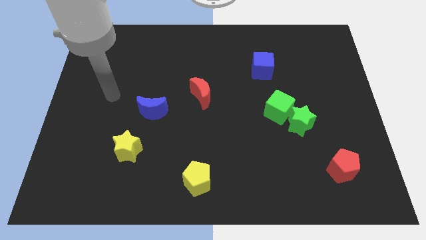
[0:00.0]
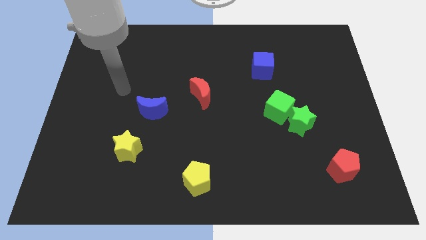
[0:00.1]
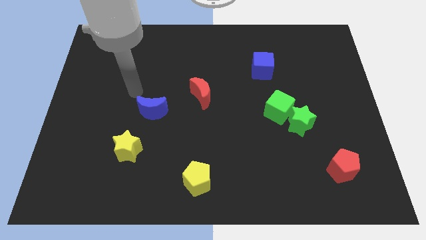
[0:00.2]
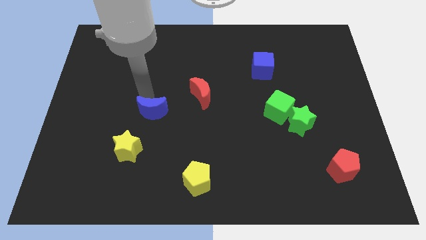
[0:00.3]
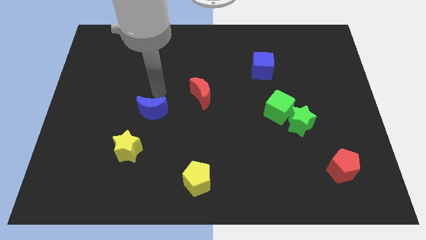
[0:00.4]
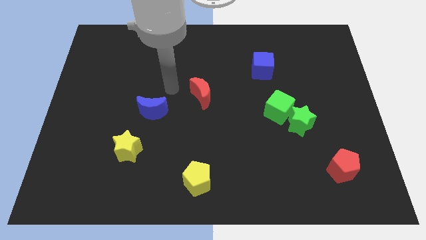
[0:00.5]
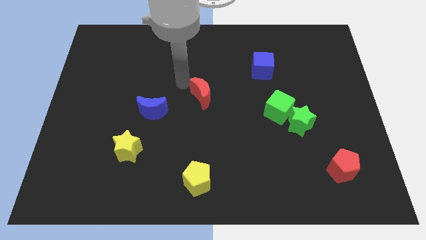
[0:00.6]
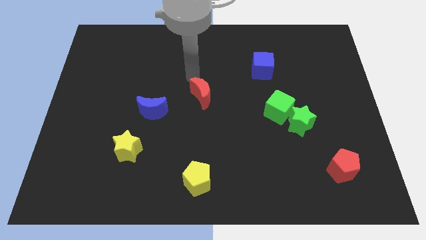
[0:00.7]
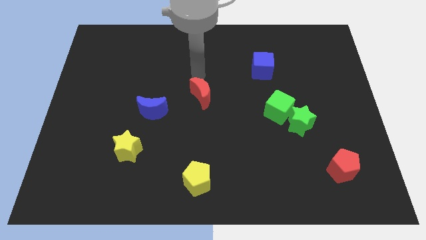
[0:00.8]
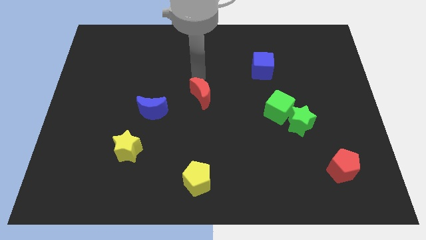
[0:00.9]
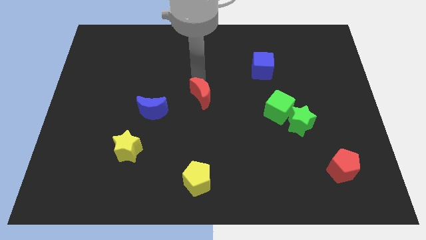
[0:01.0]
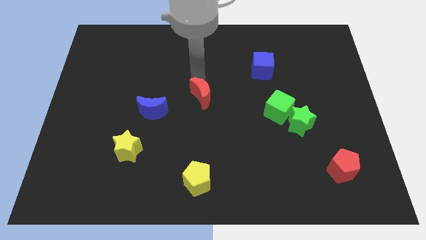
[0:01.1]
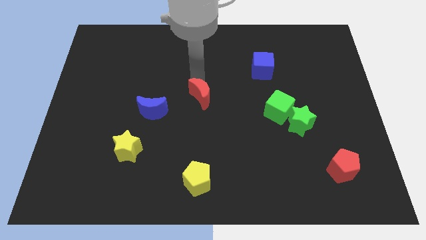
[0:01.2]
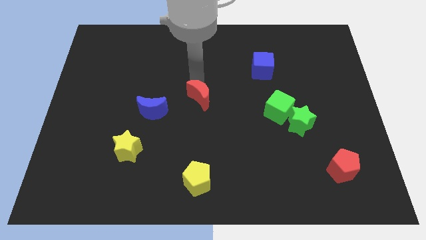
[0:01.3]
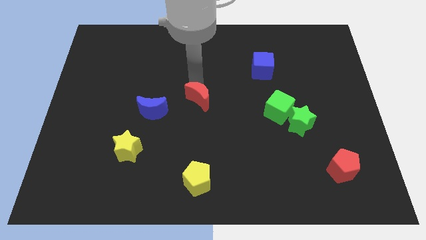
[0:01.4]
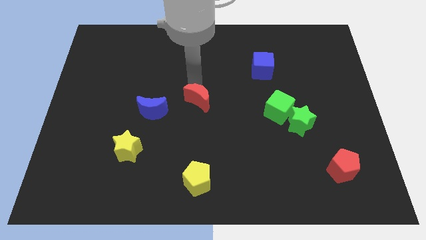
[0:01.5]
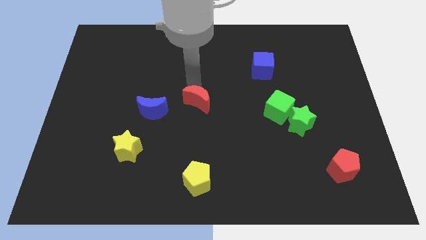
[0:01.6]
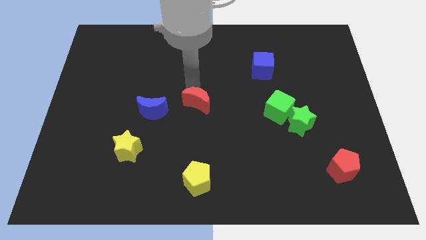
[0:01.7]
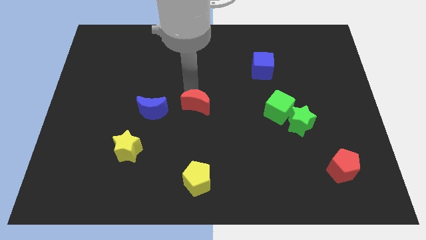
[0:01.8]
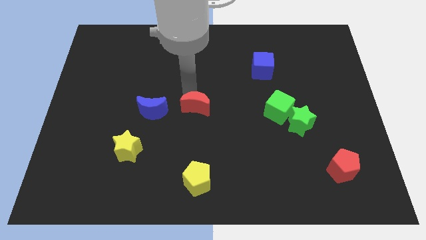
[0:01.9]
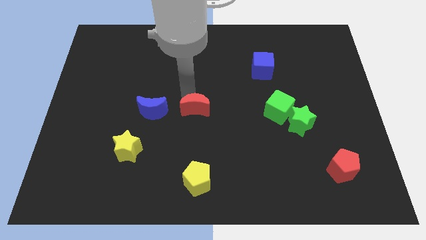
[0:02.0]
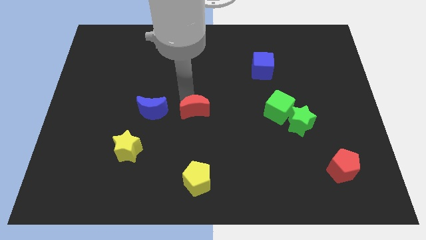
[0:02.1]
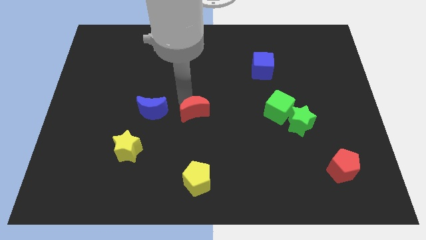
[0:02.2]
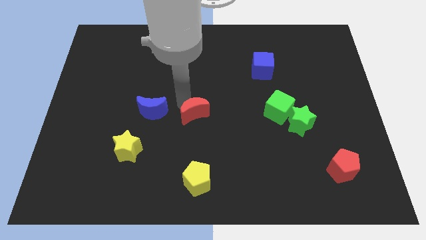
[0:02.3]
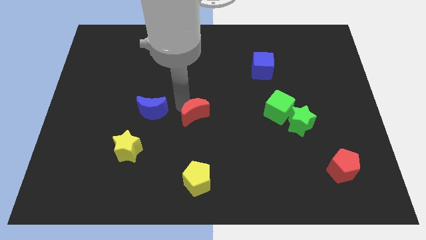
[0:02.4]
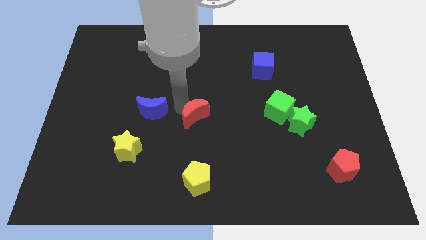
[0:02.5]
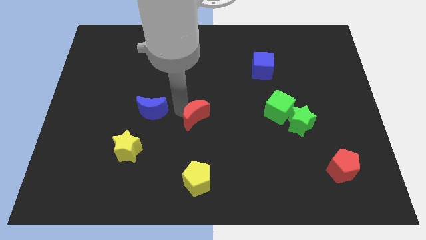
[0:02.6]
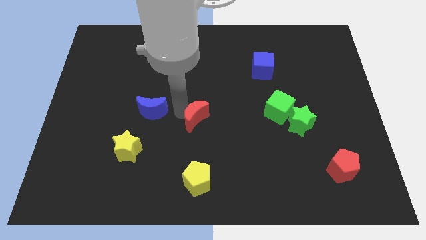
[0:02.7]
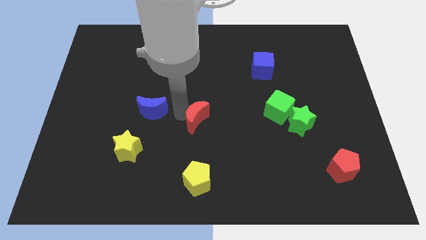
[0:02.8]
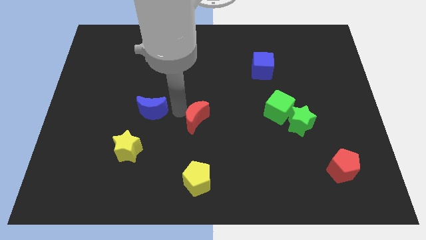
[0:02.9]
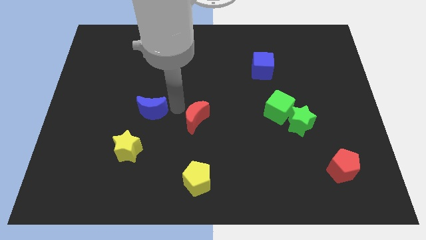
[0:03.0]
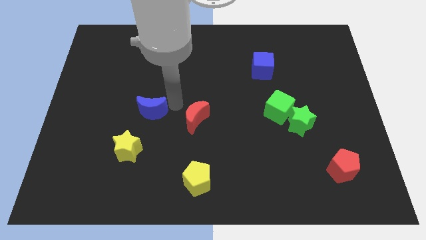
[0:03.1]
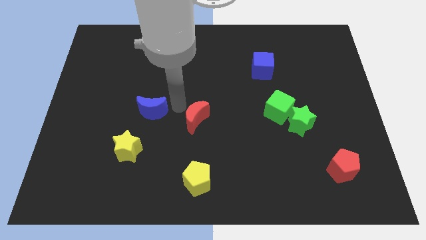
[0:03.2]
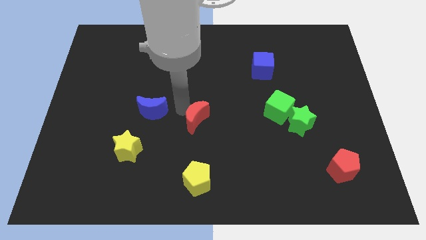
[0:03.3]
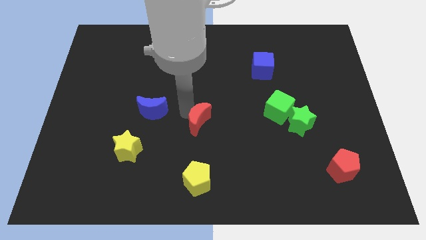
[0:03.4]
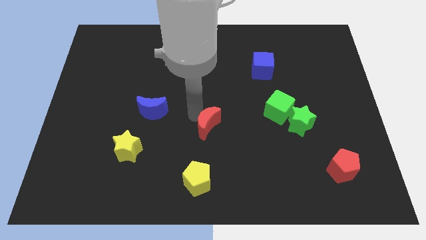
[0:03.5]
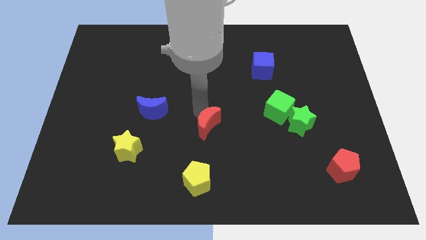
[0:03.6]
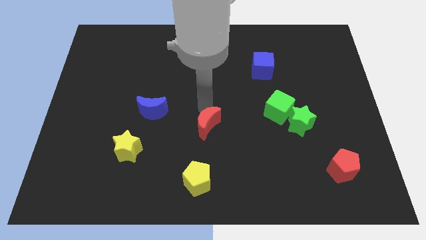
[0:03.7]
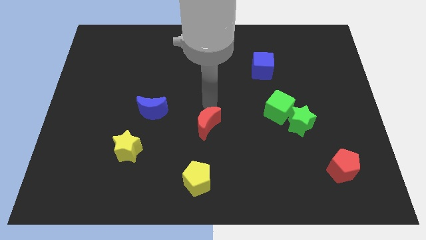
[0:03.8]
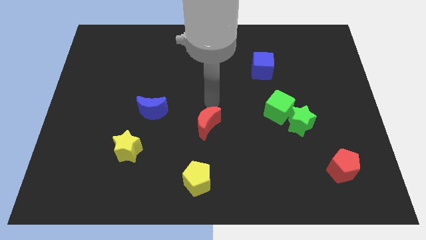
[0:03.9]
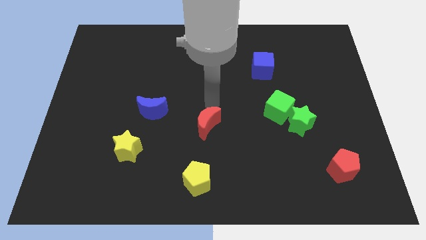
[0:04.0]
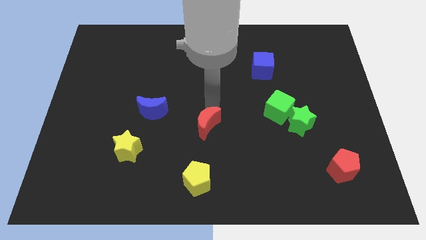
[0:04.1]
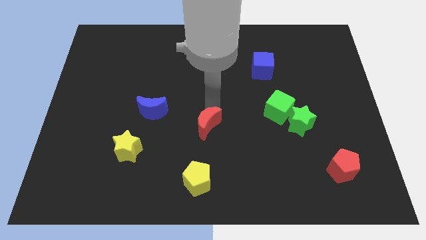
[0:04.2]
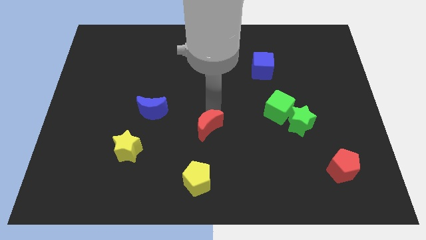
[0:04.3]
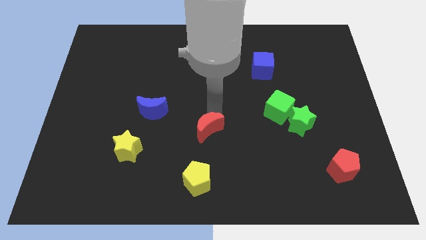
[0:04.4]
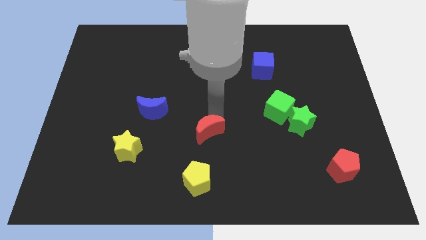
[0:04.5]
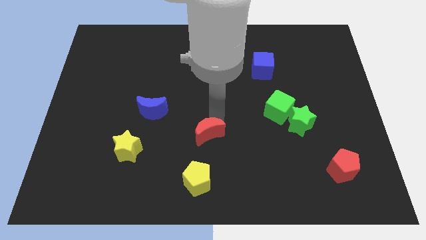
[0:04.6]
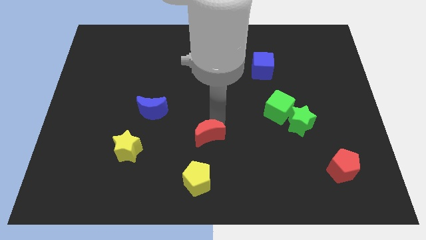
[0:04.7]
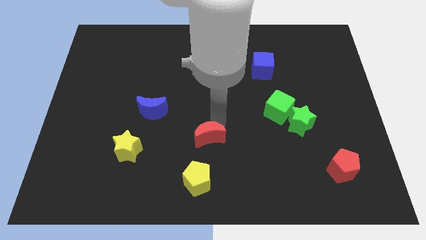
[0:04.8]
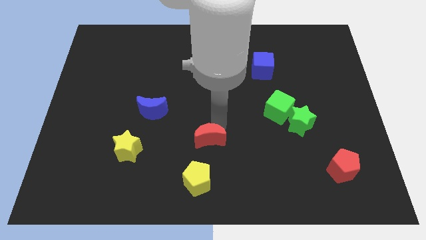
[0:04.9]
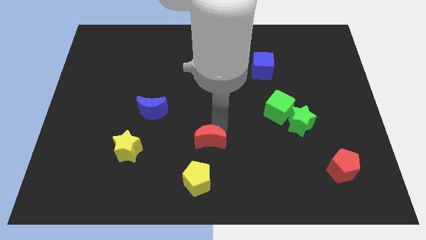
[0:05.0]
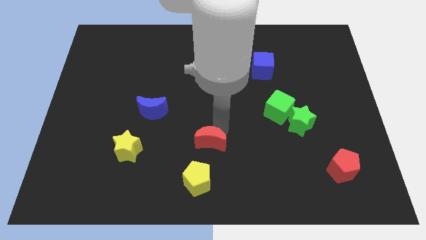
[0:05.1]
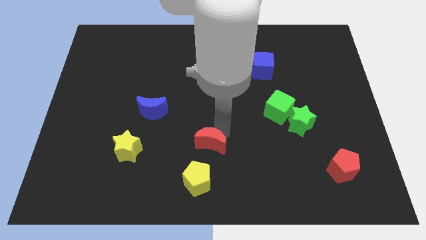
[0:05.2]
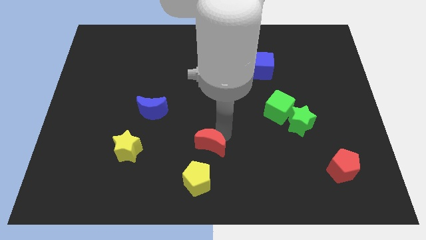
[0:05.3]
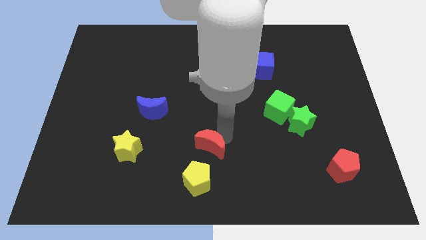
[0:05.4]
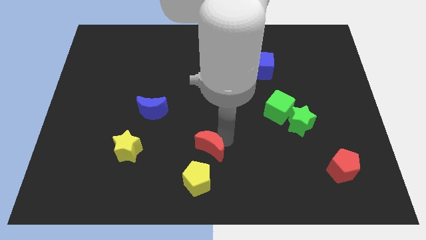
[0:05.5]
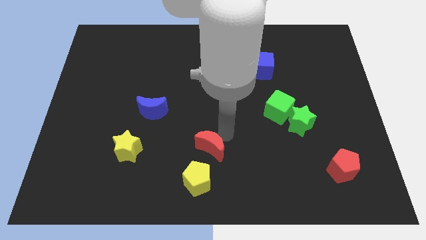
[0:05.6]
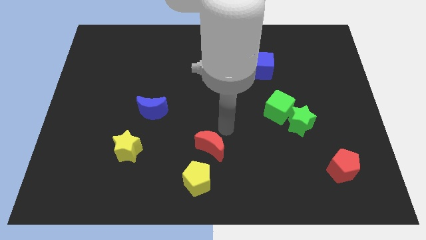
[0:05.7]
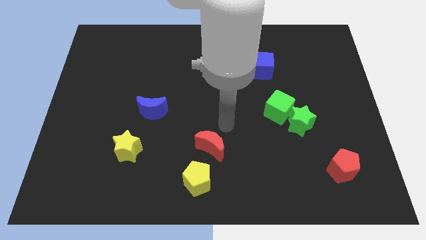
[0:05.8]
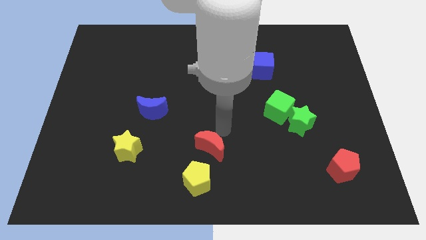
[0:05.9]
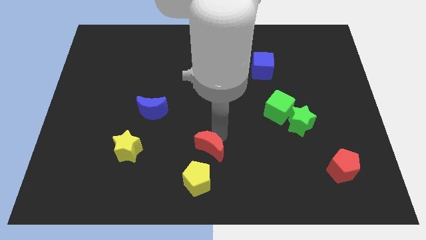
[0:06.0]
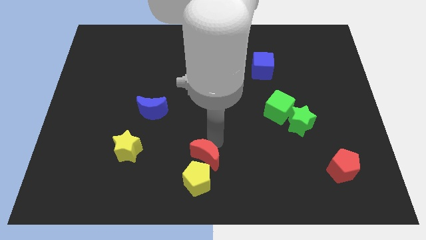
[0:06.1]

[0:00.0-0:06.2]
put the red moon close to the yellow pentagon

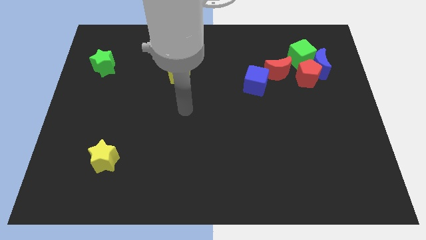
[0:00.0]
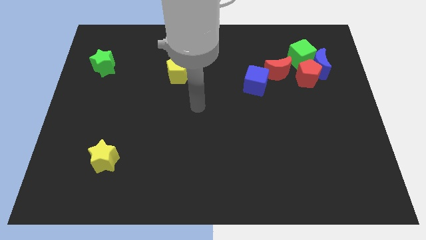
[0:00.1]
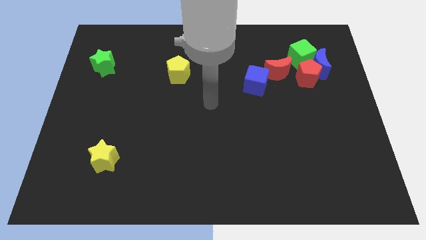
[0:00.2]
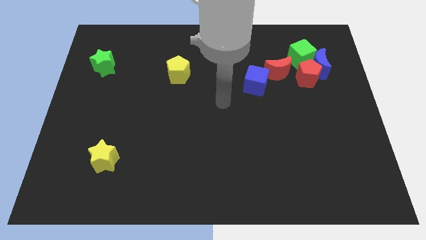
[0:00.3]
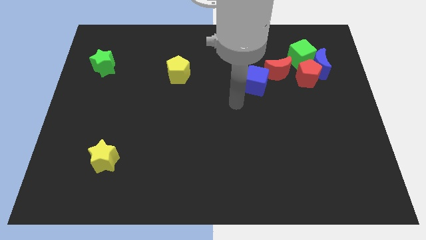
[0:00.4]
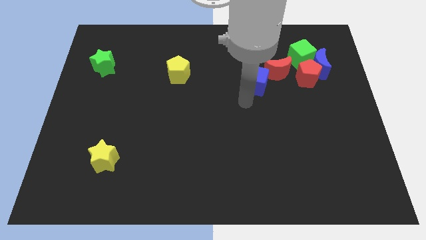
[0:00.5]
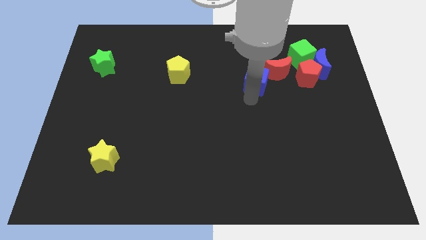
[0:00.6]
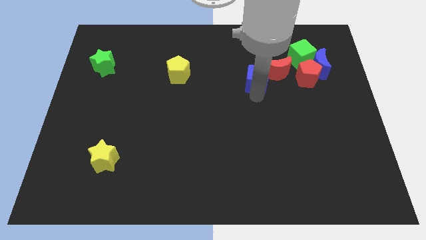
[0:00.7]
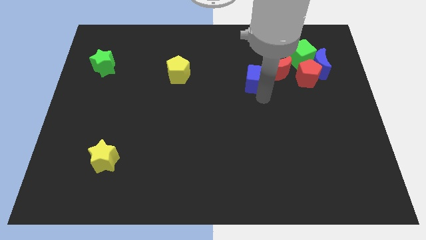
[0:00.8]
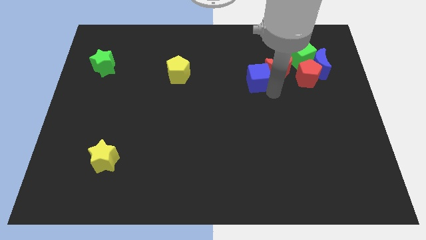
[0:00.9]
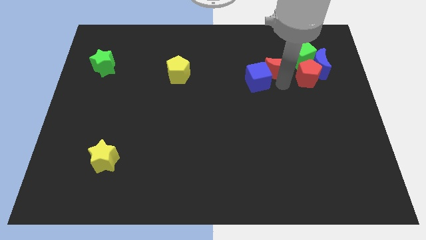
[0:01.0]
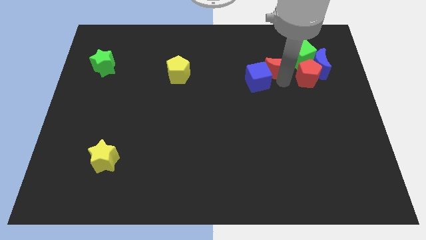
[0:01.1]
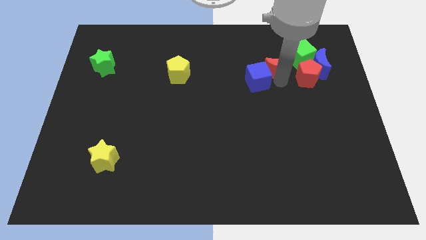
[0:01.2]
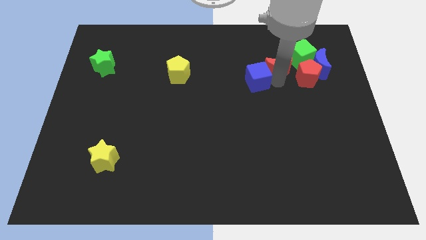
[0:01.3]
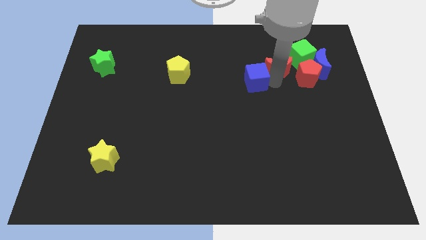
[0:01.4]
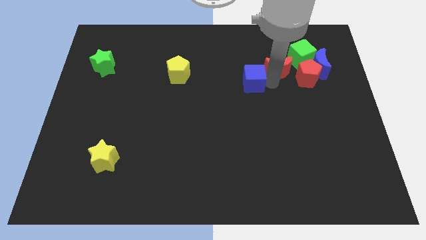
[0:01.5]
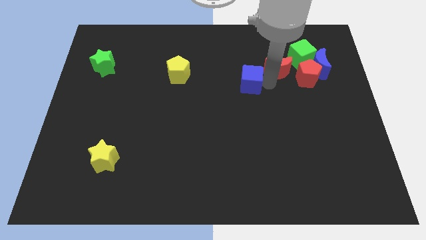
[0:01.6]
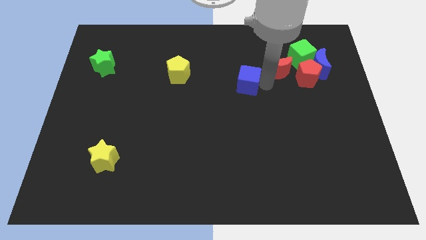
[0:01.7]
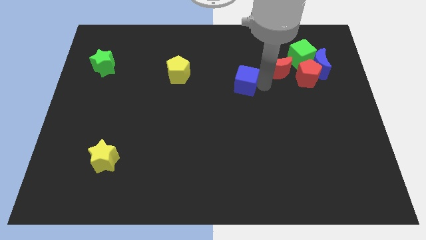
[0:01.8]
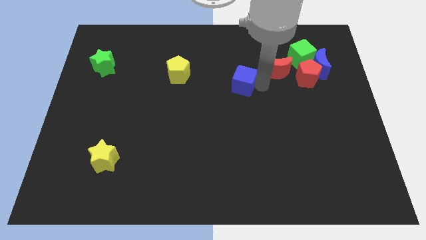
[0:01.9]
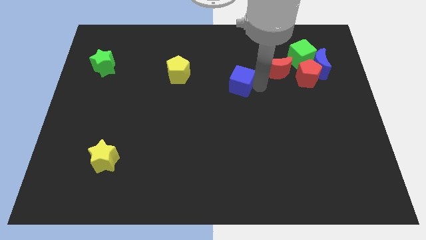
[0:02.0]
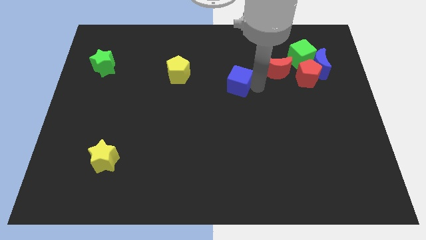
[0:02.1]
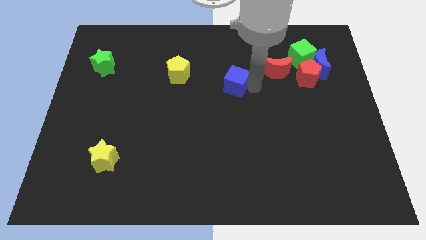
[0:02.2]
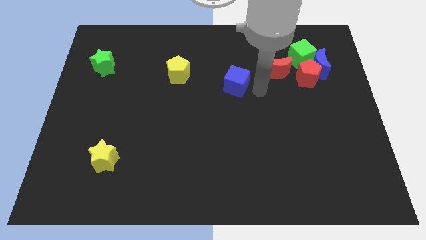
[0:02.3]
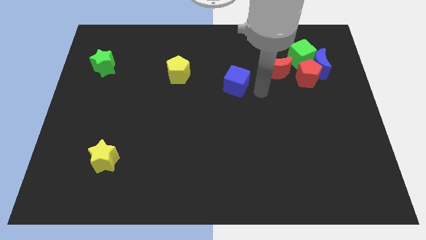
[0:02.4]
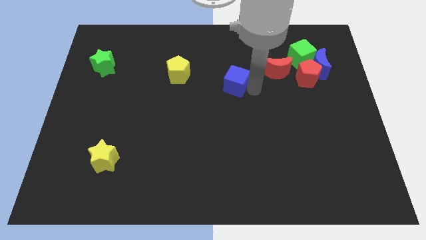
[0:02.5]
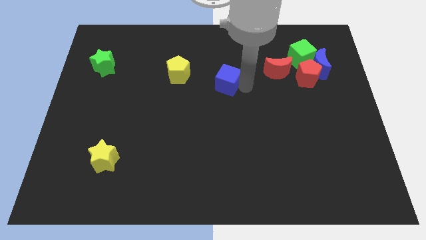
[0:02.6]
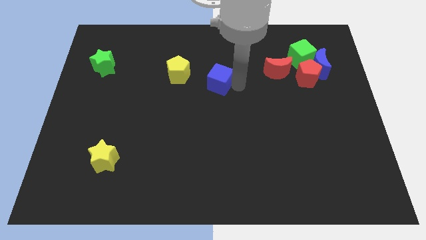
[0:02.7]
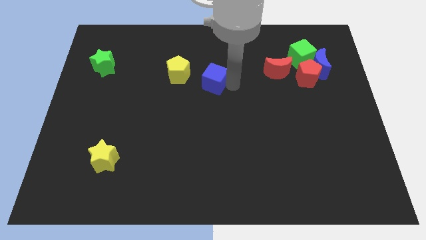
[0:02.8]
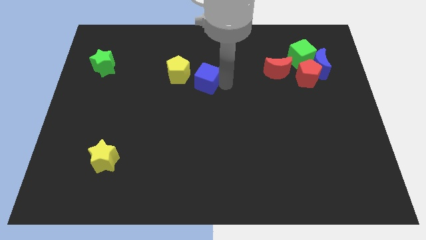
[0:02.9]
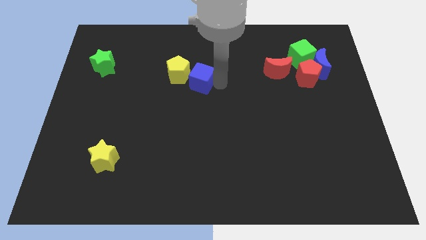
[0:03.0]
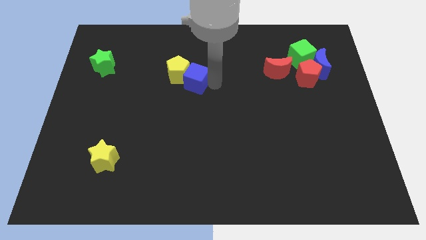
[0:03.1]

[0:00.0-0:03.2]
put the blue cube close to the yellow pentagon
